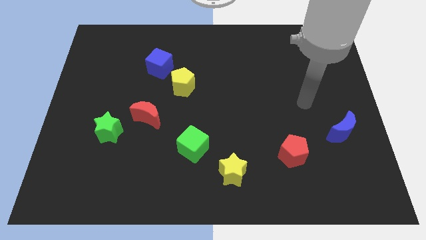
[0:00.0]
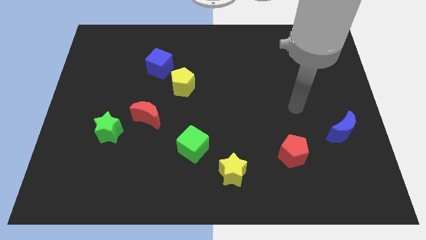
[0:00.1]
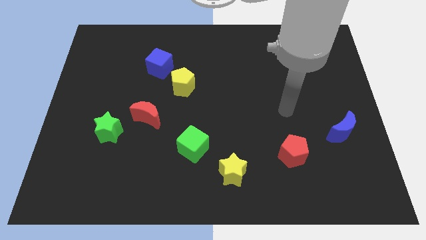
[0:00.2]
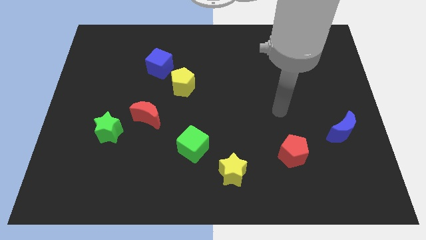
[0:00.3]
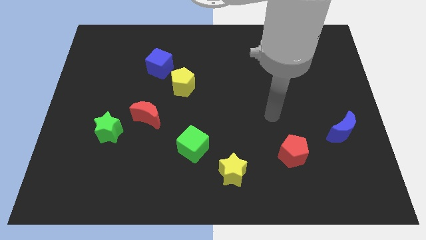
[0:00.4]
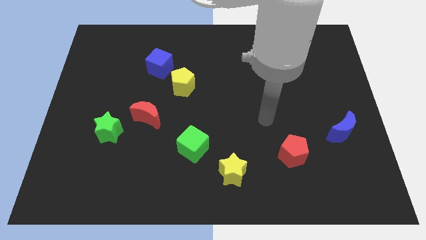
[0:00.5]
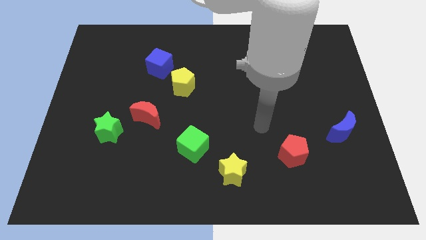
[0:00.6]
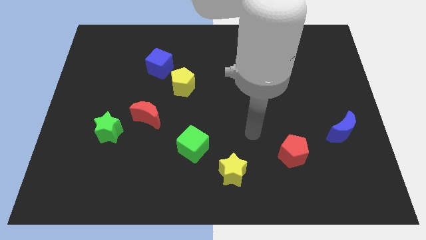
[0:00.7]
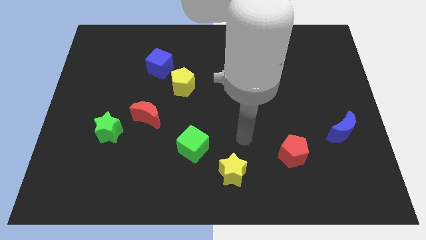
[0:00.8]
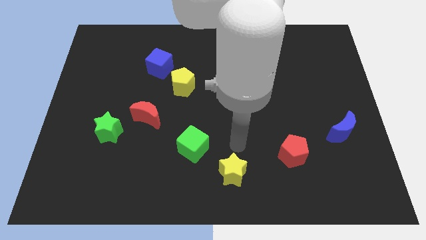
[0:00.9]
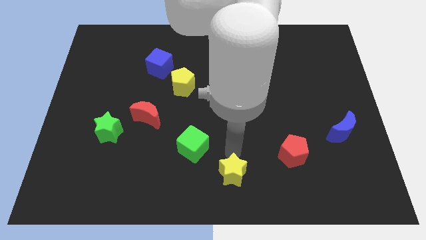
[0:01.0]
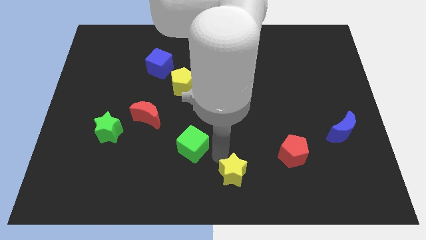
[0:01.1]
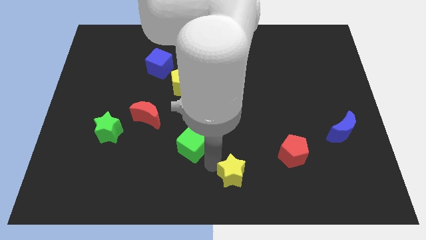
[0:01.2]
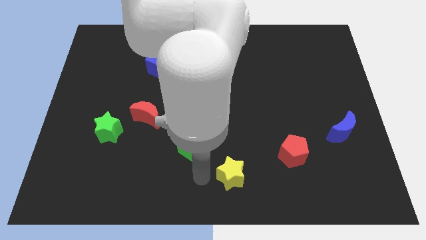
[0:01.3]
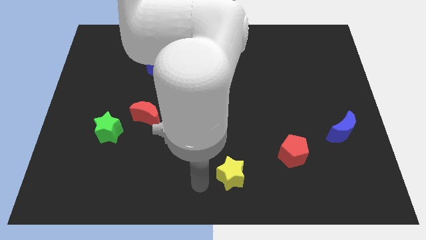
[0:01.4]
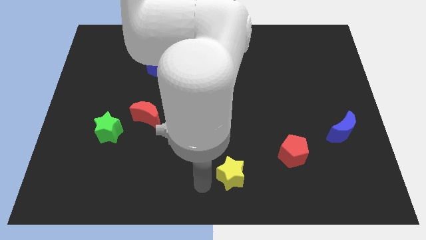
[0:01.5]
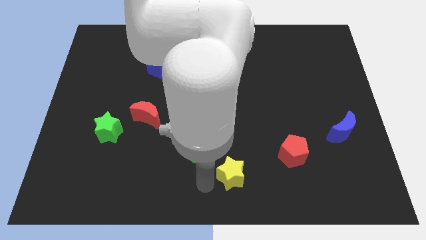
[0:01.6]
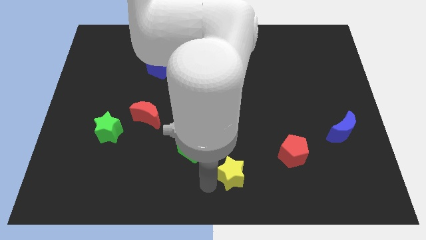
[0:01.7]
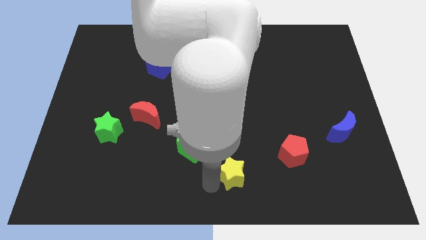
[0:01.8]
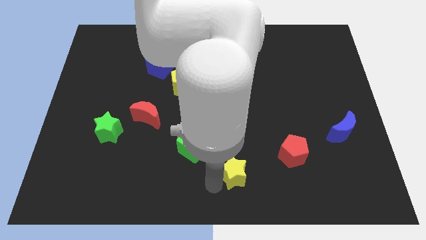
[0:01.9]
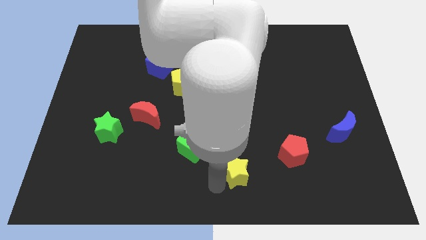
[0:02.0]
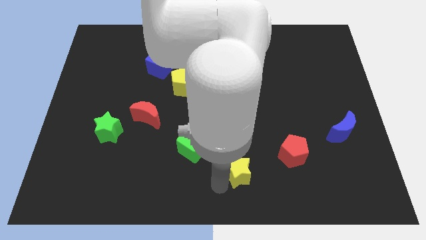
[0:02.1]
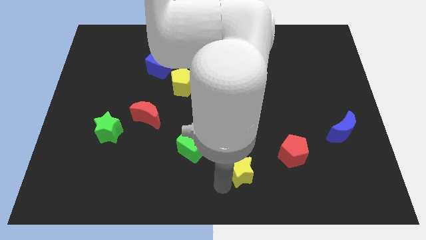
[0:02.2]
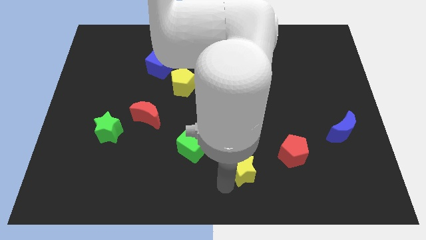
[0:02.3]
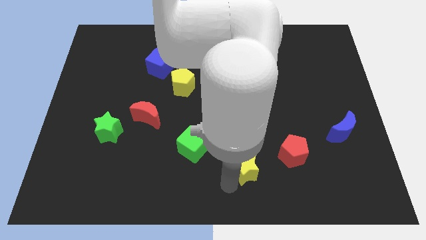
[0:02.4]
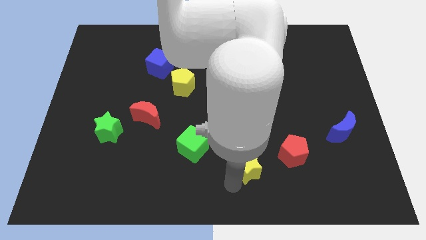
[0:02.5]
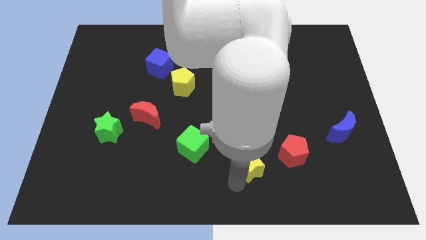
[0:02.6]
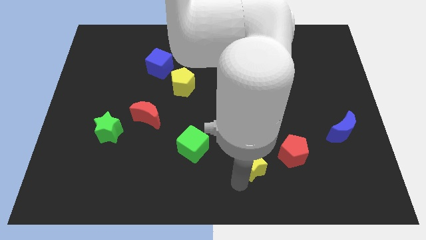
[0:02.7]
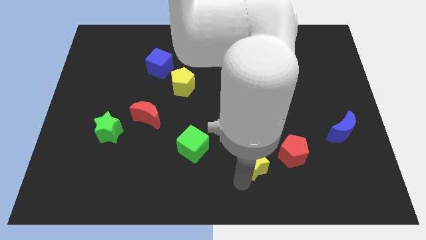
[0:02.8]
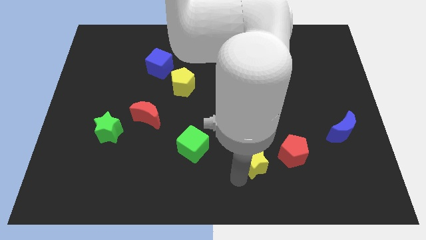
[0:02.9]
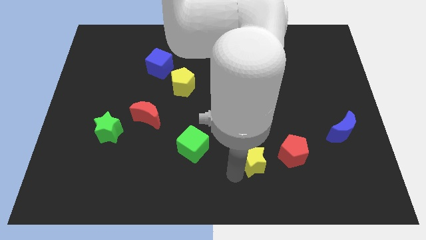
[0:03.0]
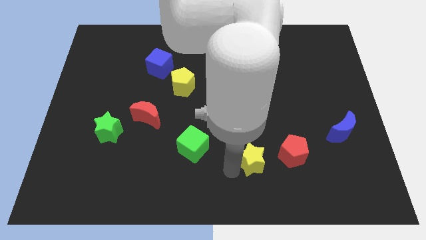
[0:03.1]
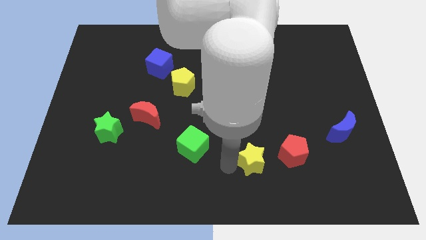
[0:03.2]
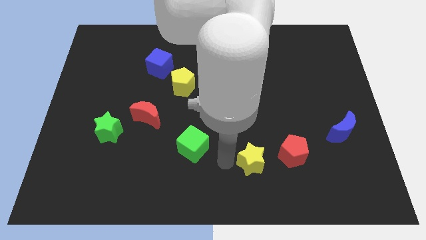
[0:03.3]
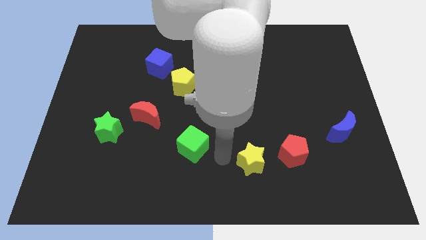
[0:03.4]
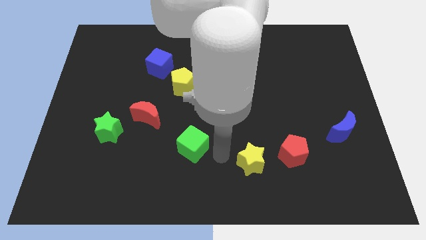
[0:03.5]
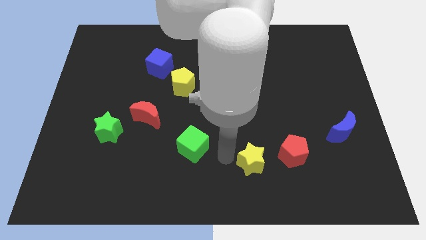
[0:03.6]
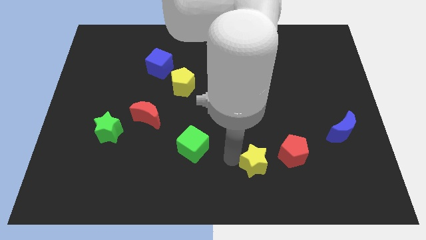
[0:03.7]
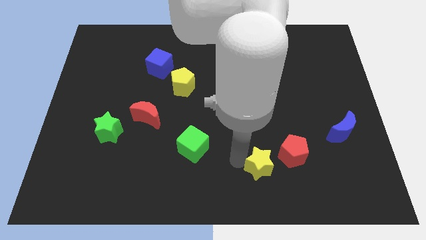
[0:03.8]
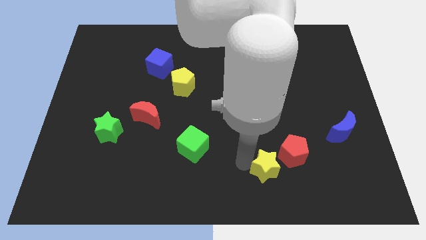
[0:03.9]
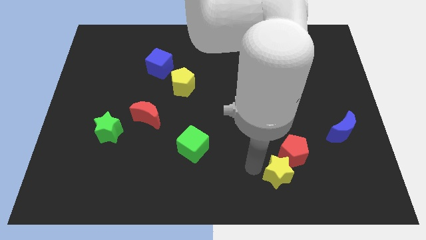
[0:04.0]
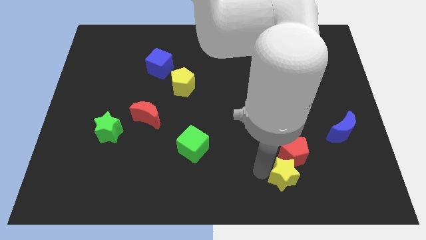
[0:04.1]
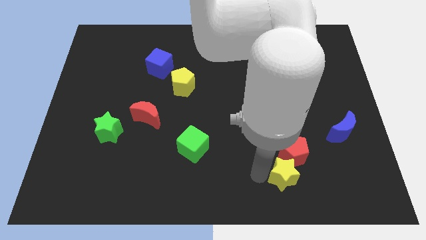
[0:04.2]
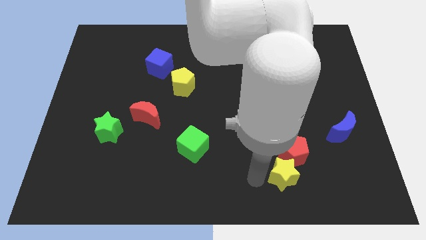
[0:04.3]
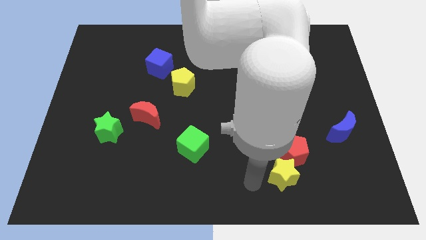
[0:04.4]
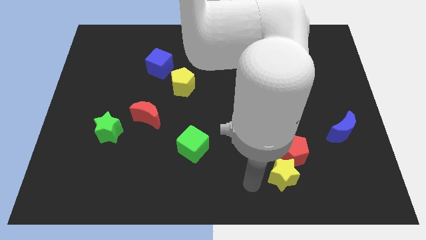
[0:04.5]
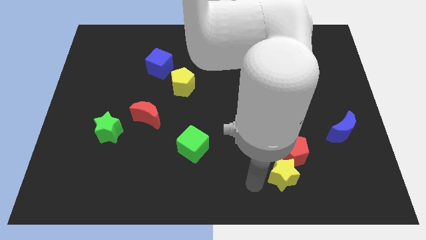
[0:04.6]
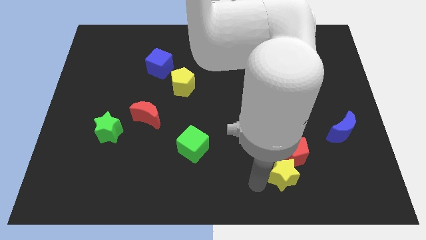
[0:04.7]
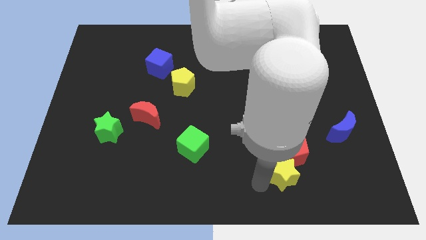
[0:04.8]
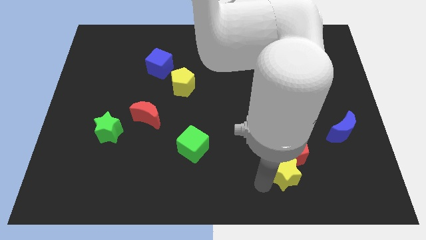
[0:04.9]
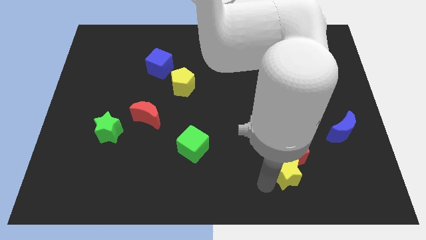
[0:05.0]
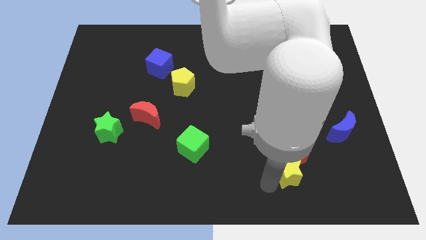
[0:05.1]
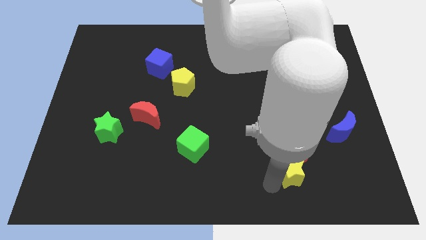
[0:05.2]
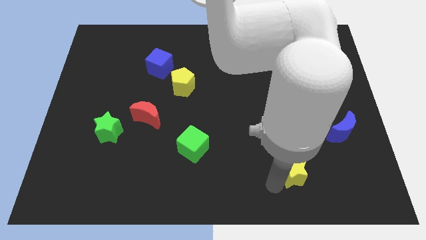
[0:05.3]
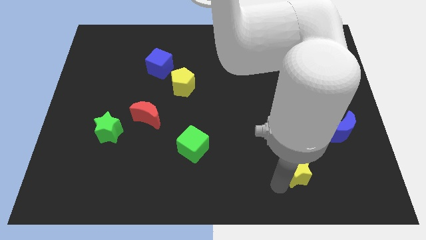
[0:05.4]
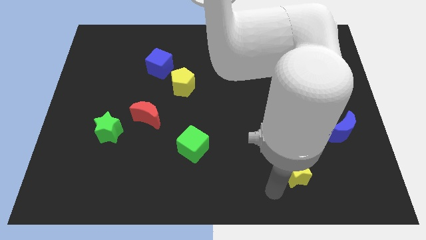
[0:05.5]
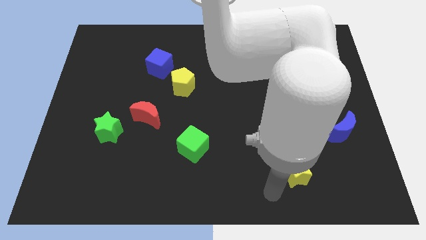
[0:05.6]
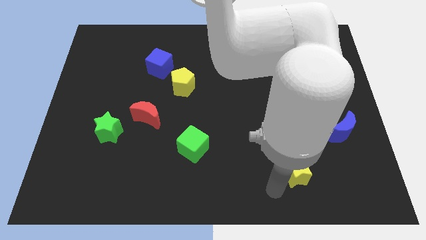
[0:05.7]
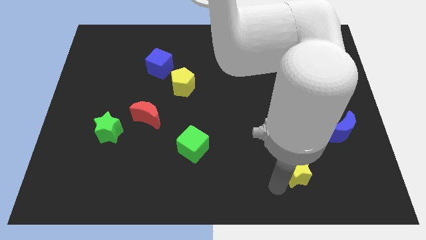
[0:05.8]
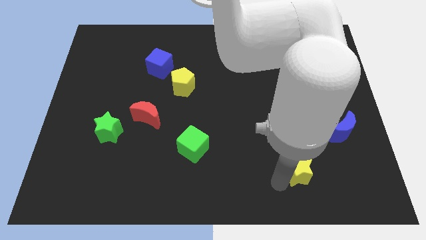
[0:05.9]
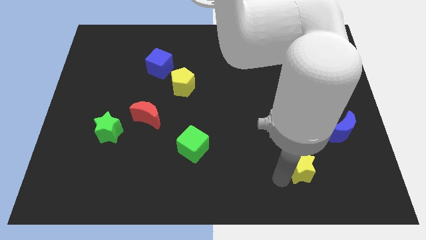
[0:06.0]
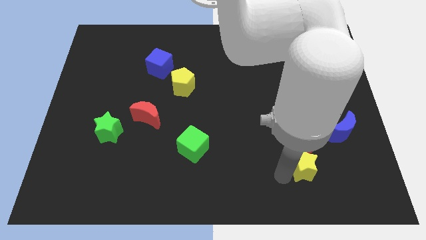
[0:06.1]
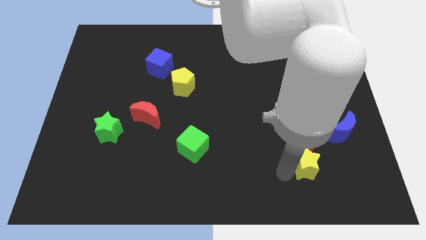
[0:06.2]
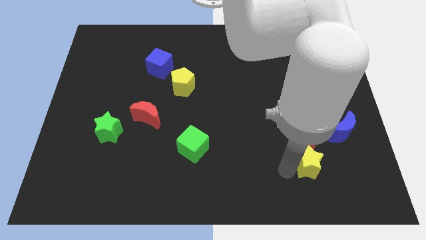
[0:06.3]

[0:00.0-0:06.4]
move the yellow star to the bottom left side of the blue moon
